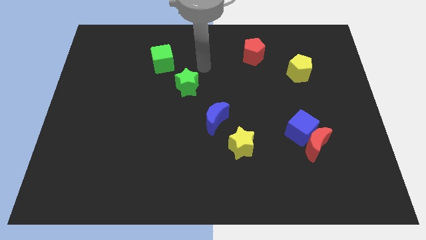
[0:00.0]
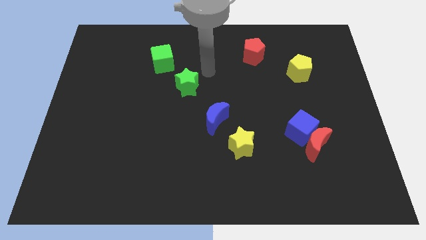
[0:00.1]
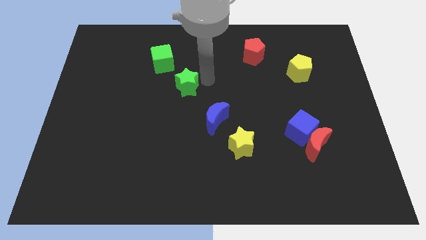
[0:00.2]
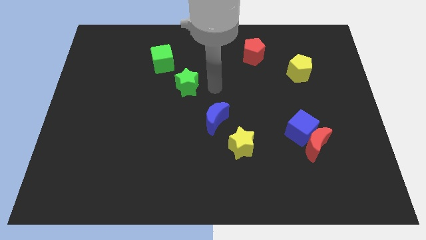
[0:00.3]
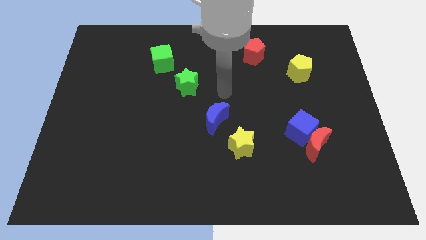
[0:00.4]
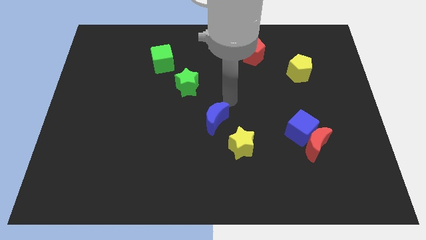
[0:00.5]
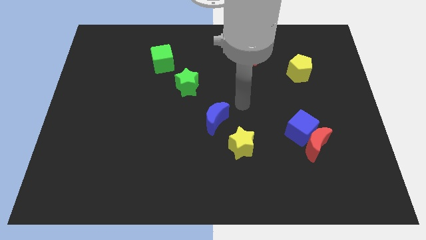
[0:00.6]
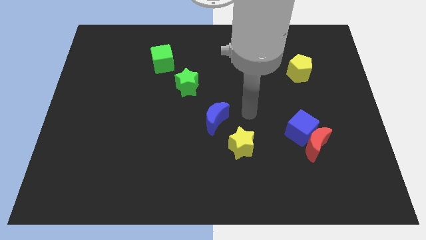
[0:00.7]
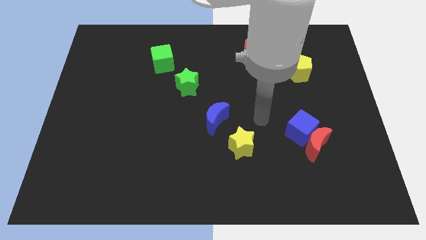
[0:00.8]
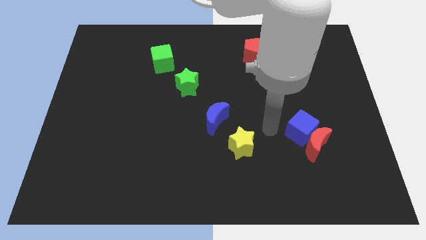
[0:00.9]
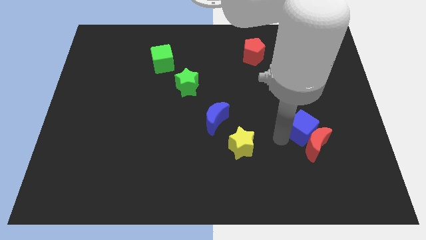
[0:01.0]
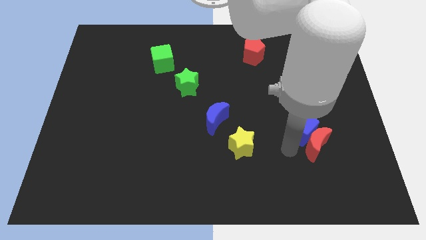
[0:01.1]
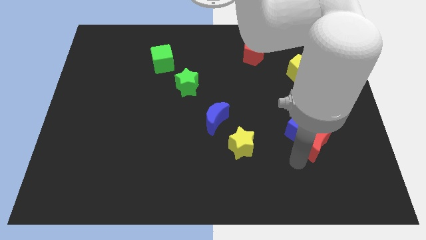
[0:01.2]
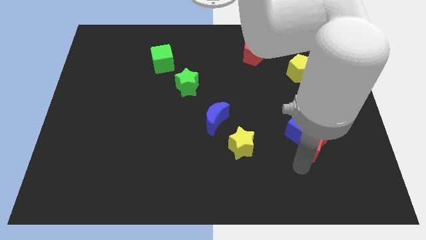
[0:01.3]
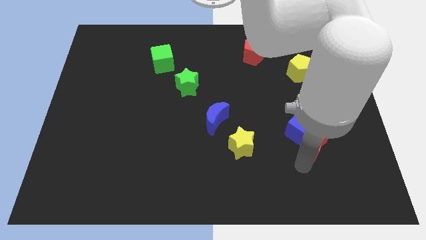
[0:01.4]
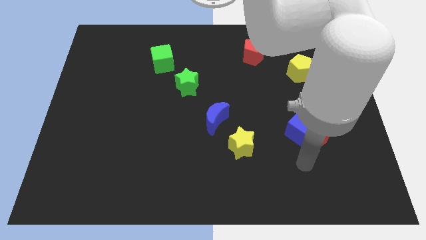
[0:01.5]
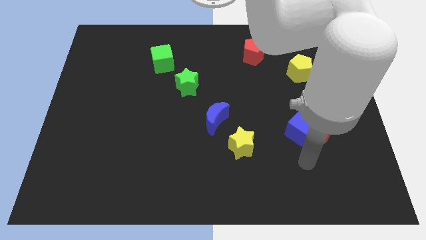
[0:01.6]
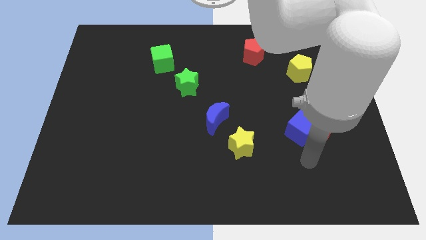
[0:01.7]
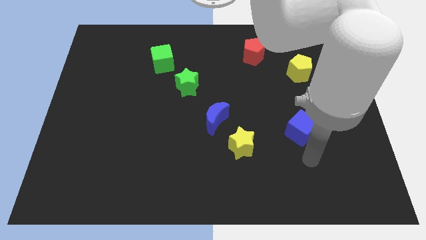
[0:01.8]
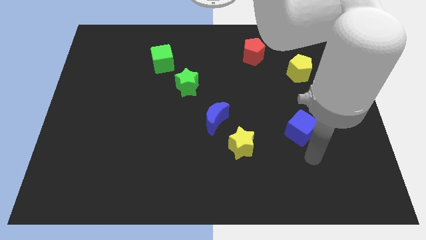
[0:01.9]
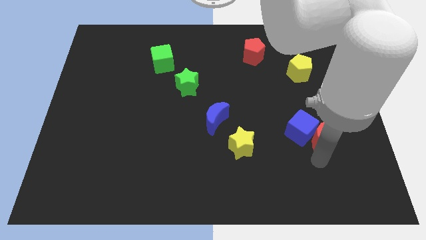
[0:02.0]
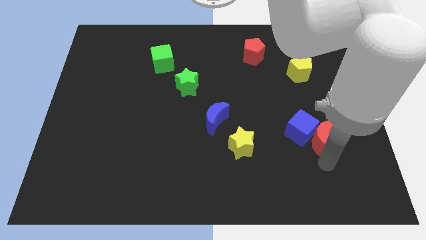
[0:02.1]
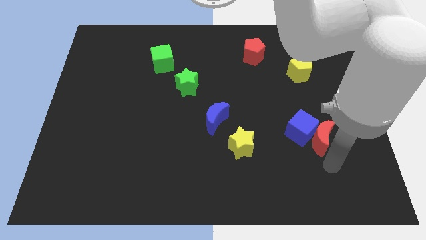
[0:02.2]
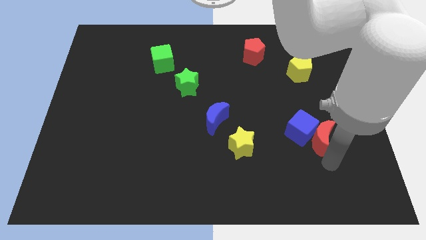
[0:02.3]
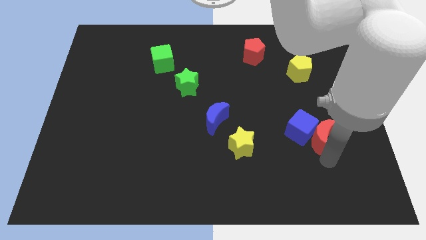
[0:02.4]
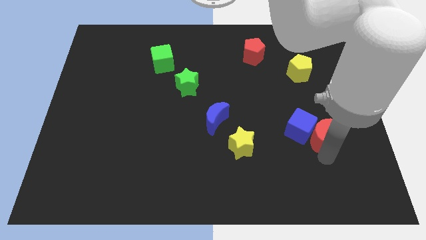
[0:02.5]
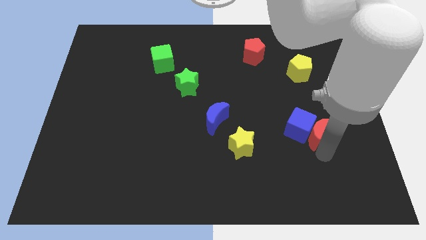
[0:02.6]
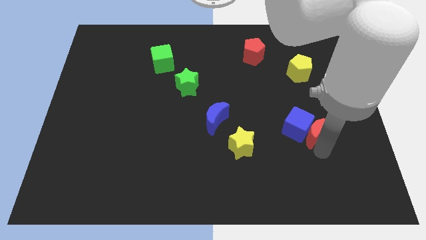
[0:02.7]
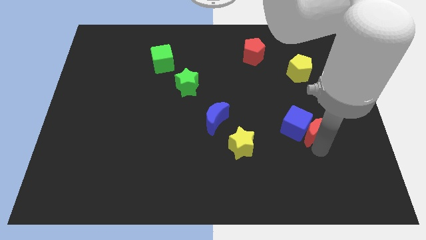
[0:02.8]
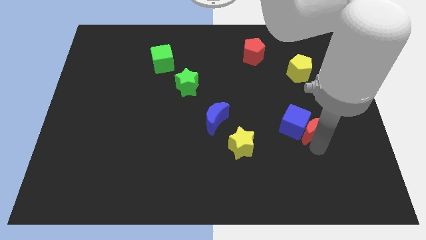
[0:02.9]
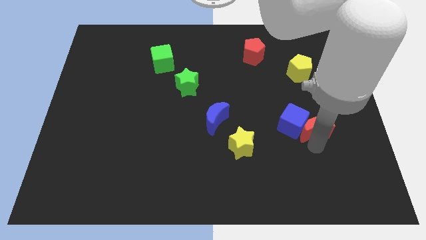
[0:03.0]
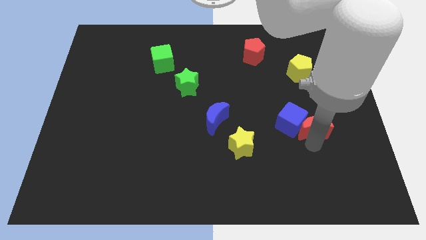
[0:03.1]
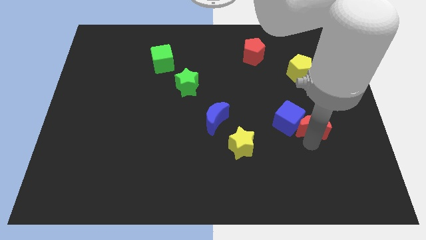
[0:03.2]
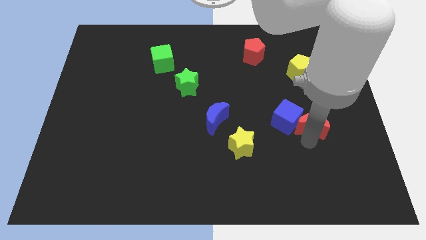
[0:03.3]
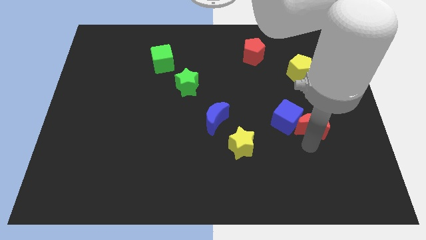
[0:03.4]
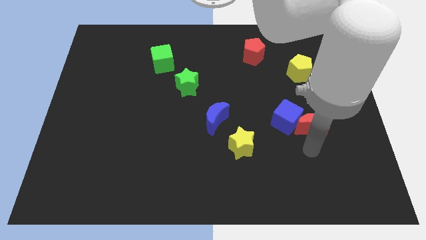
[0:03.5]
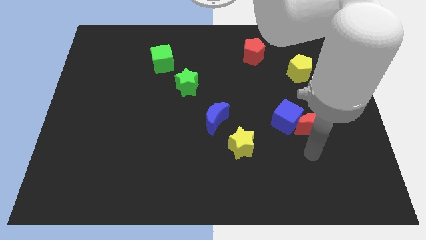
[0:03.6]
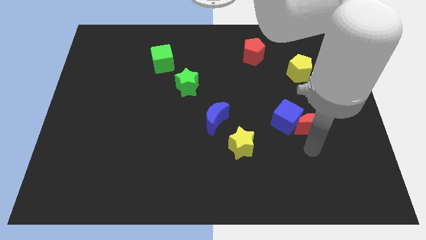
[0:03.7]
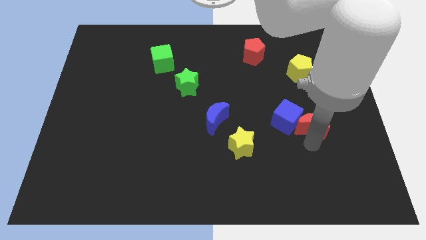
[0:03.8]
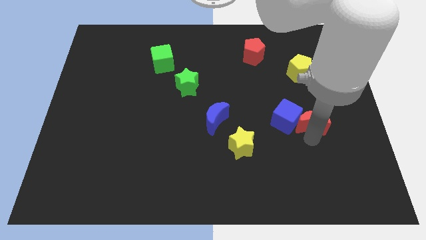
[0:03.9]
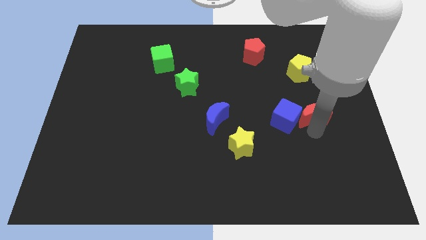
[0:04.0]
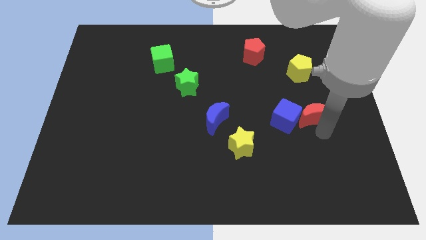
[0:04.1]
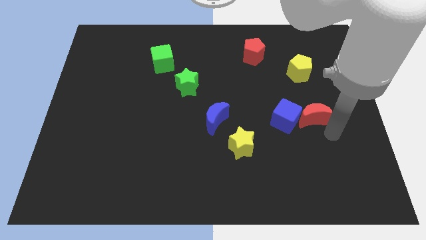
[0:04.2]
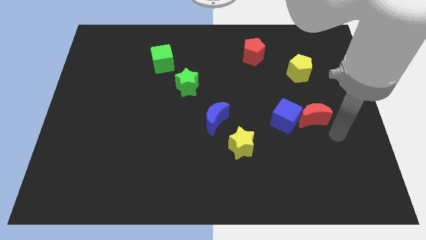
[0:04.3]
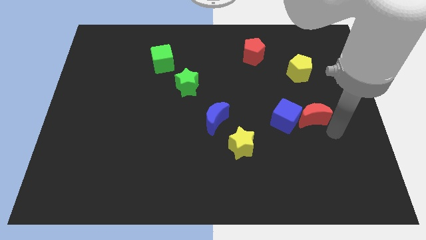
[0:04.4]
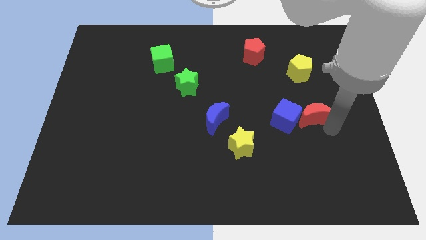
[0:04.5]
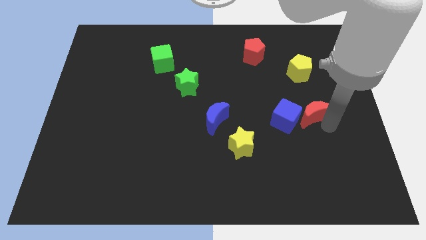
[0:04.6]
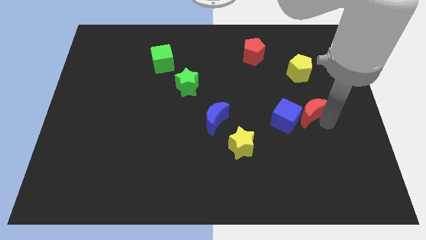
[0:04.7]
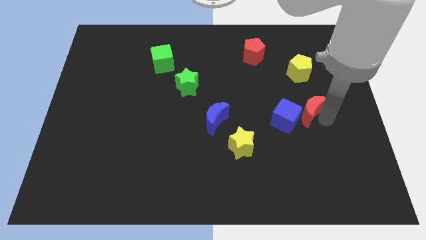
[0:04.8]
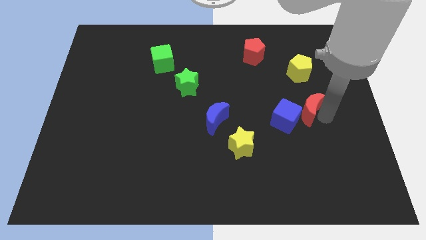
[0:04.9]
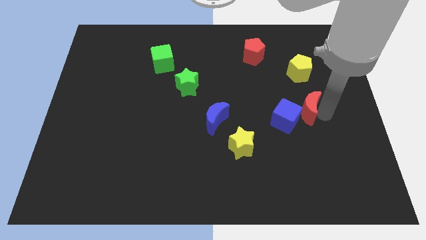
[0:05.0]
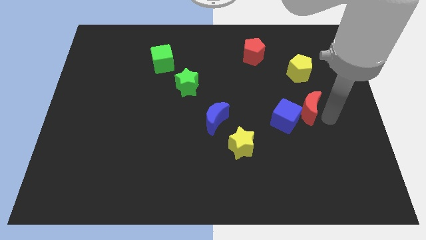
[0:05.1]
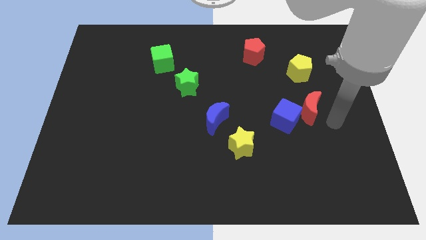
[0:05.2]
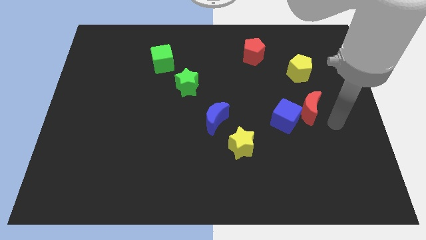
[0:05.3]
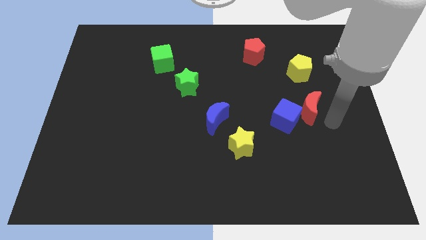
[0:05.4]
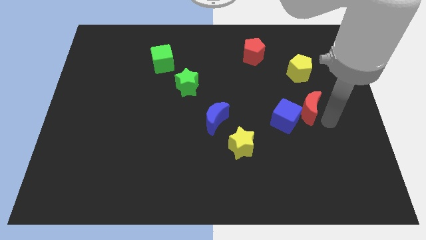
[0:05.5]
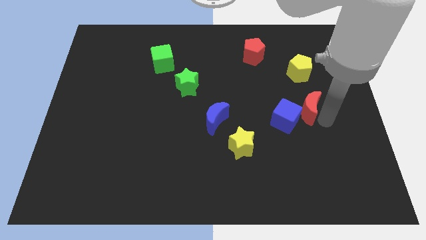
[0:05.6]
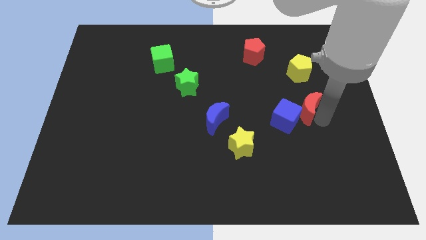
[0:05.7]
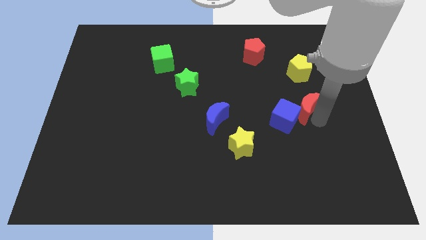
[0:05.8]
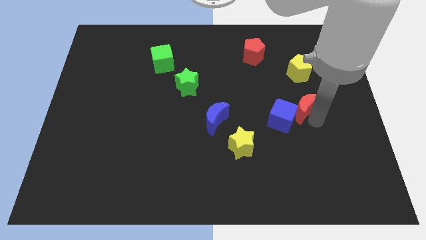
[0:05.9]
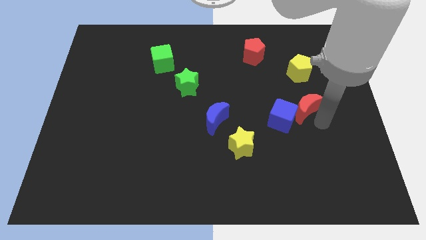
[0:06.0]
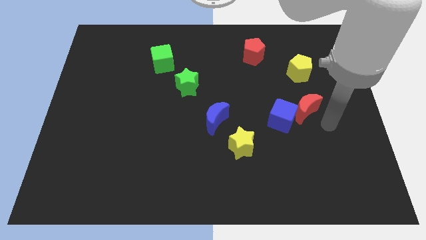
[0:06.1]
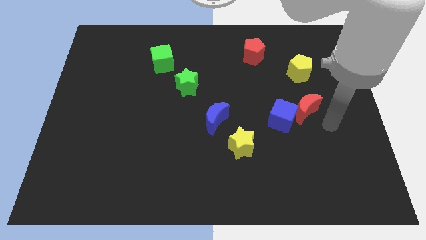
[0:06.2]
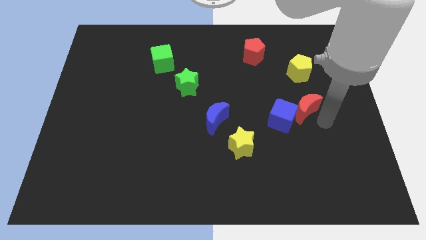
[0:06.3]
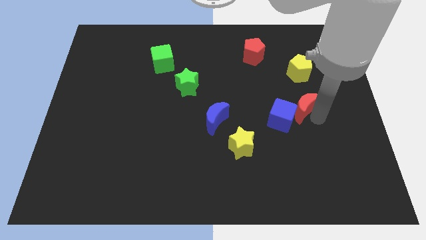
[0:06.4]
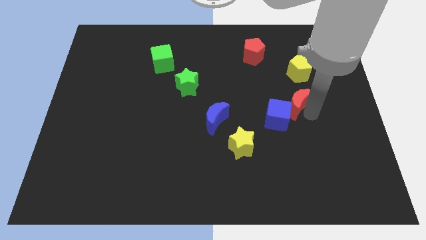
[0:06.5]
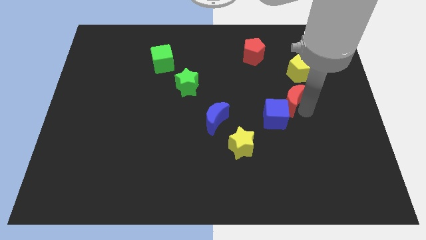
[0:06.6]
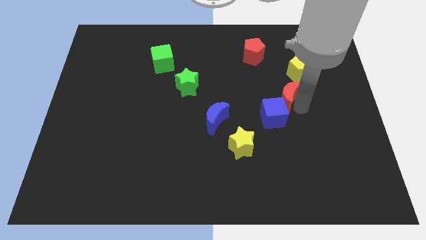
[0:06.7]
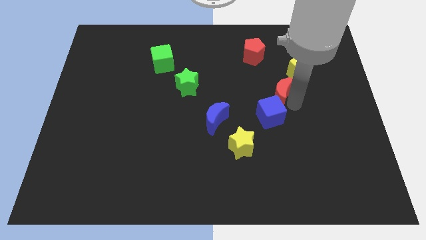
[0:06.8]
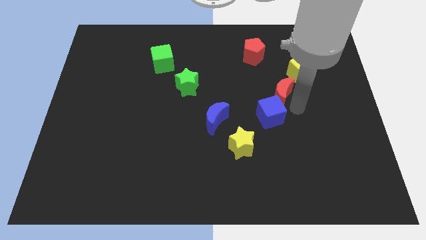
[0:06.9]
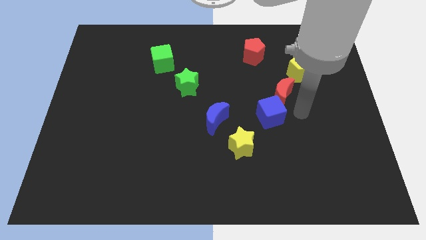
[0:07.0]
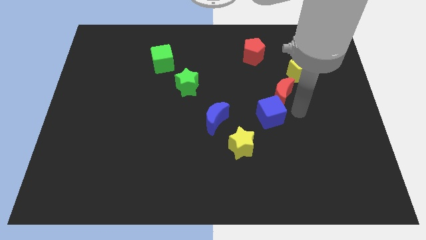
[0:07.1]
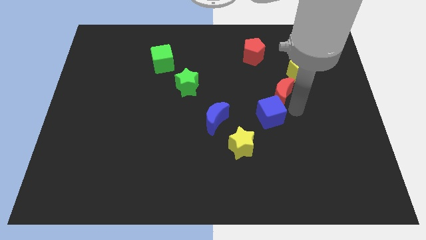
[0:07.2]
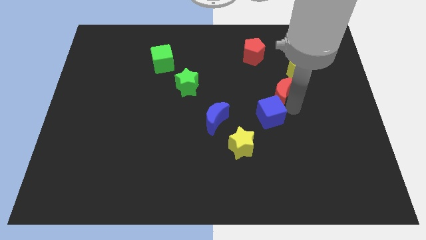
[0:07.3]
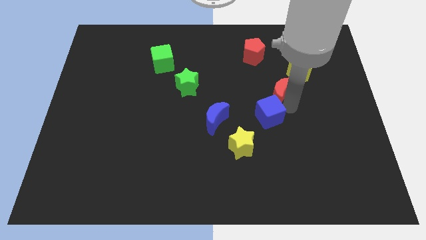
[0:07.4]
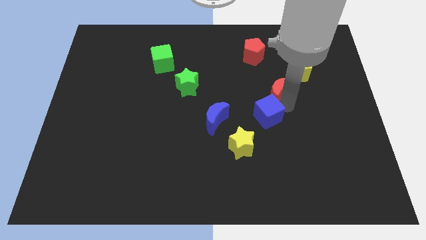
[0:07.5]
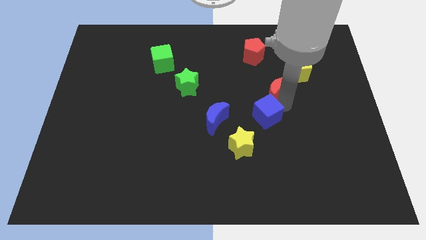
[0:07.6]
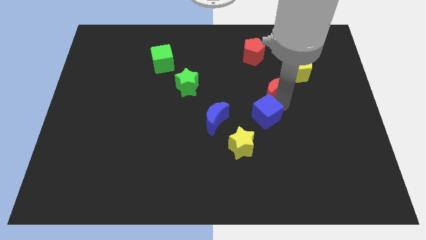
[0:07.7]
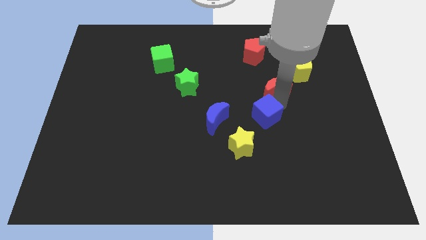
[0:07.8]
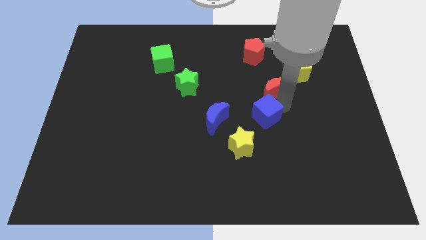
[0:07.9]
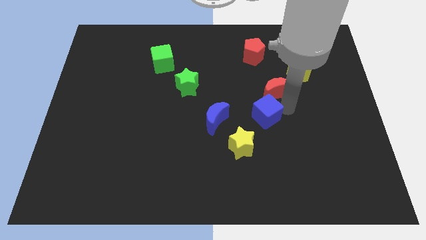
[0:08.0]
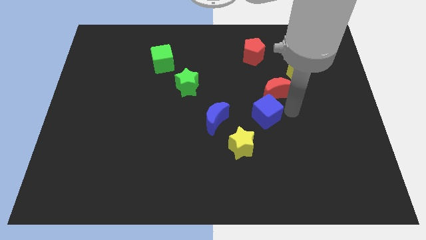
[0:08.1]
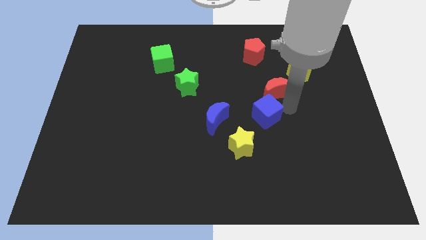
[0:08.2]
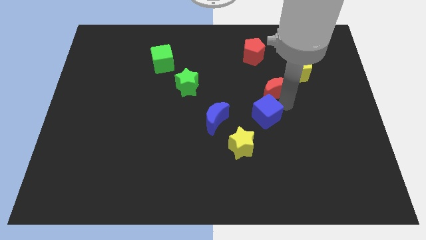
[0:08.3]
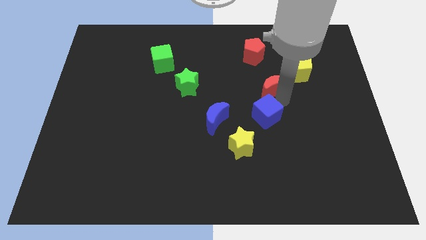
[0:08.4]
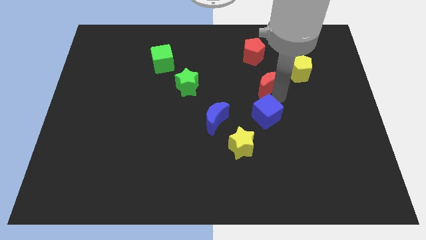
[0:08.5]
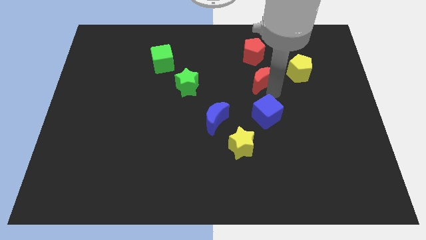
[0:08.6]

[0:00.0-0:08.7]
push the red moon to the left side of the yellow pentagon
